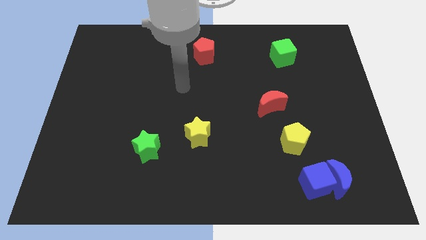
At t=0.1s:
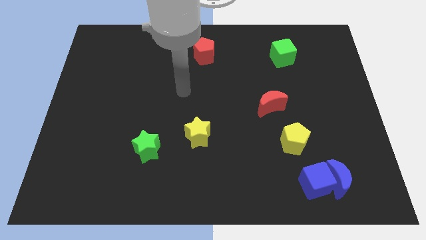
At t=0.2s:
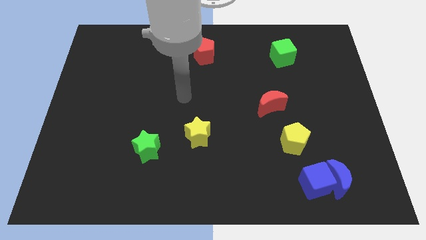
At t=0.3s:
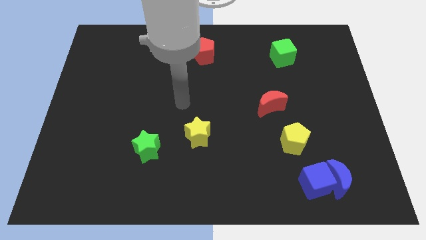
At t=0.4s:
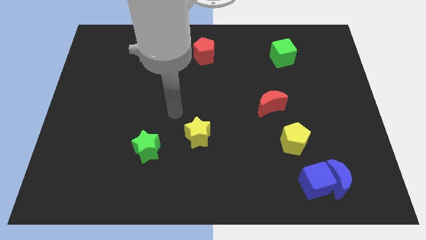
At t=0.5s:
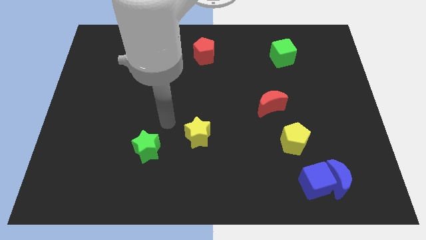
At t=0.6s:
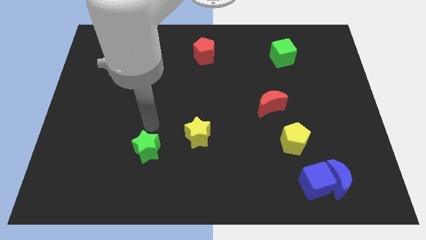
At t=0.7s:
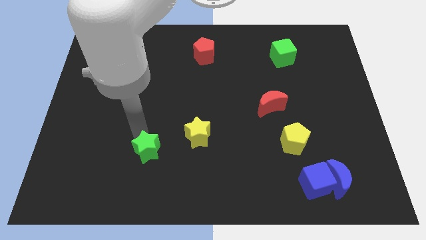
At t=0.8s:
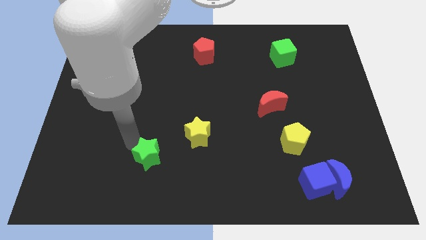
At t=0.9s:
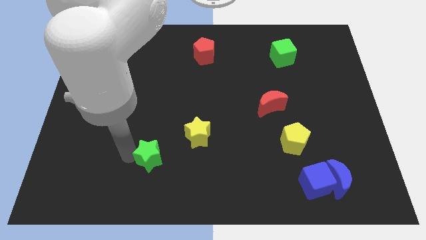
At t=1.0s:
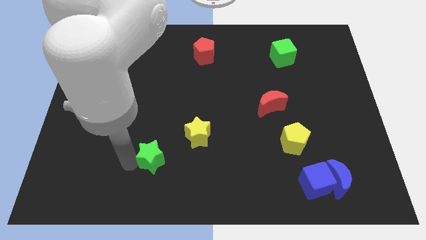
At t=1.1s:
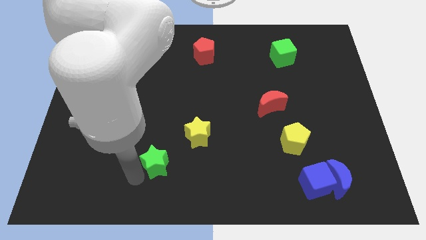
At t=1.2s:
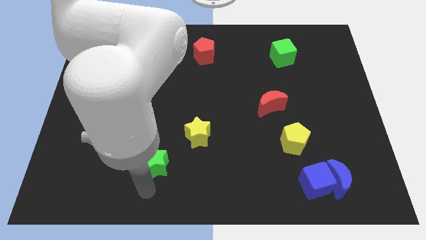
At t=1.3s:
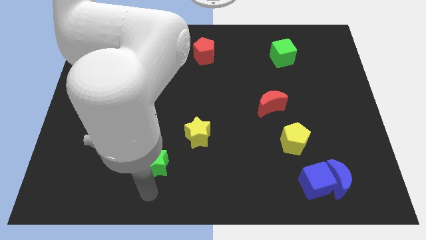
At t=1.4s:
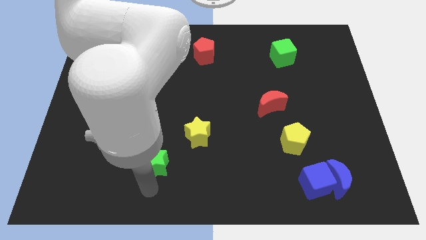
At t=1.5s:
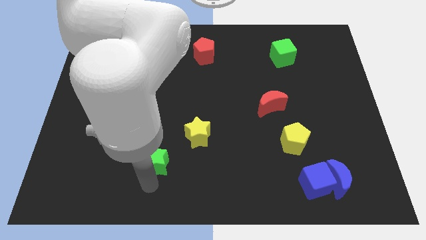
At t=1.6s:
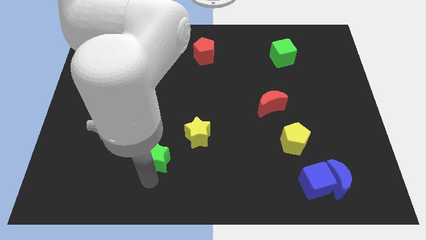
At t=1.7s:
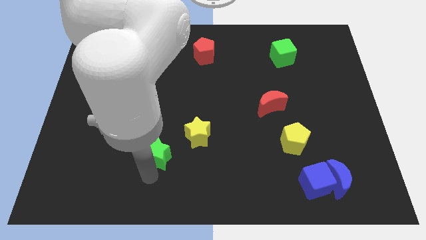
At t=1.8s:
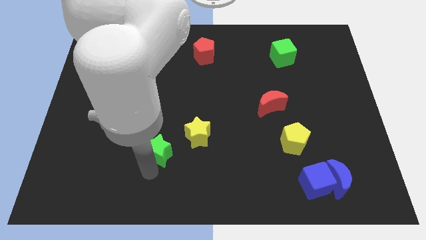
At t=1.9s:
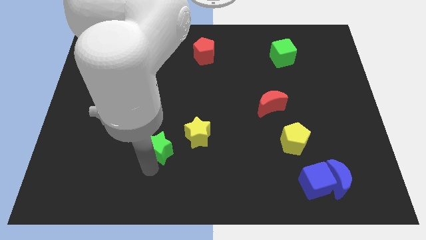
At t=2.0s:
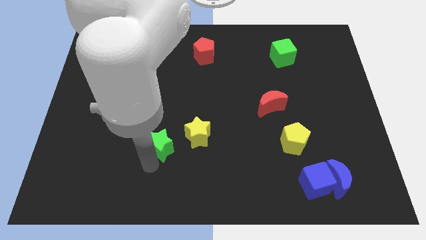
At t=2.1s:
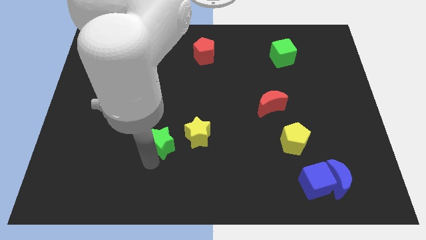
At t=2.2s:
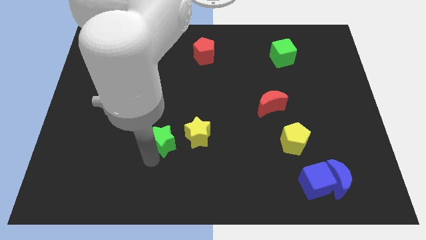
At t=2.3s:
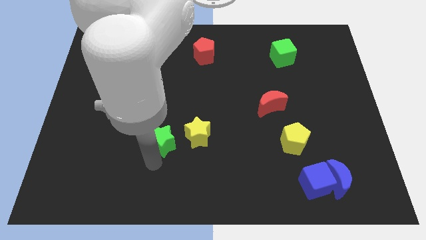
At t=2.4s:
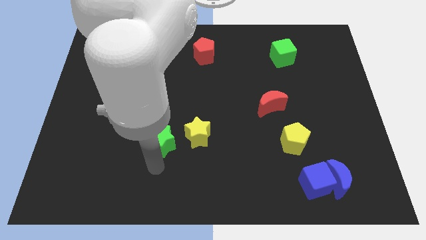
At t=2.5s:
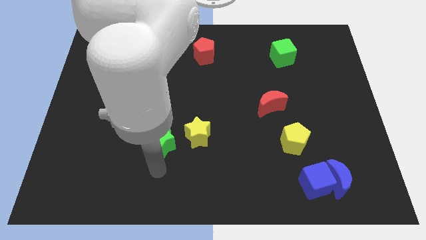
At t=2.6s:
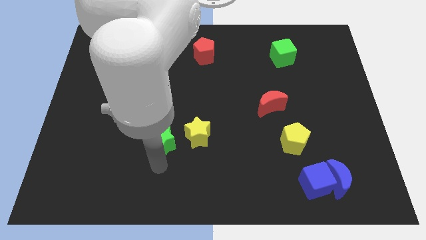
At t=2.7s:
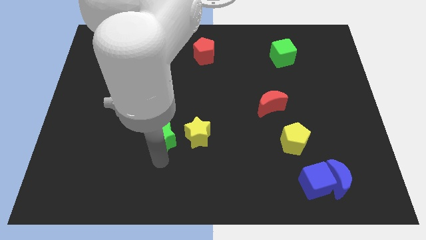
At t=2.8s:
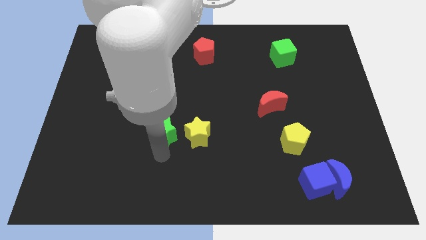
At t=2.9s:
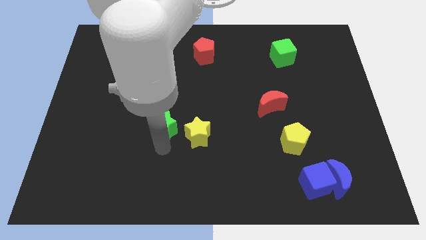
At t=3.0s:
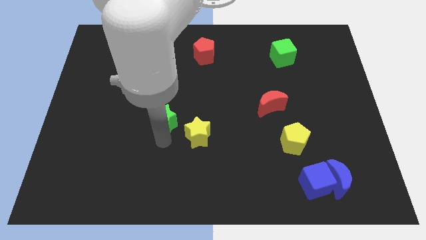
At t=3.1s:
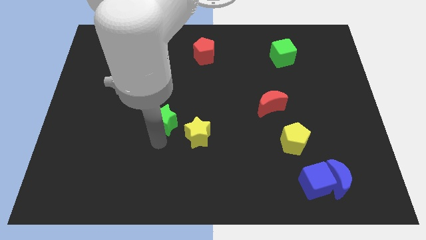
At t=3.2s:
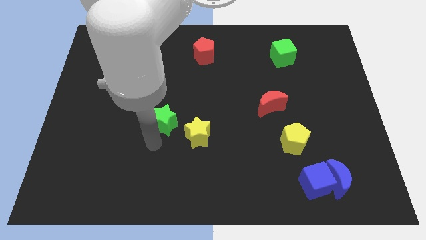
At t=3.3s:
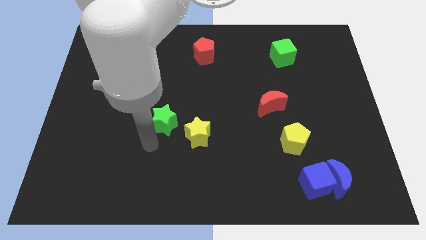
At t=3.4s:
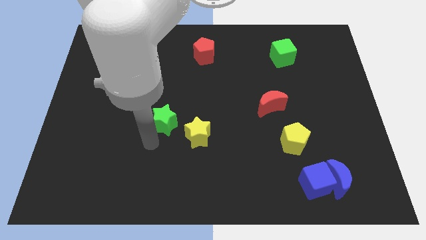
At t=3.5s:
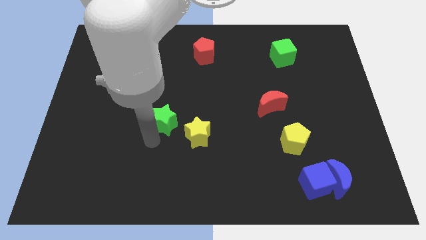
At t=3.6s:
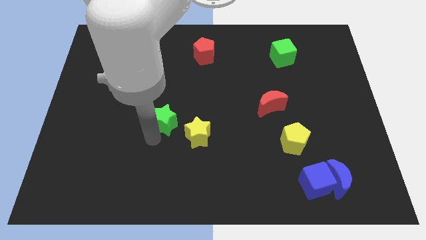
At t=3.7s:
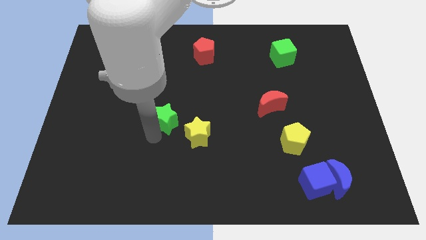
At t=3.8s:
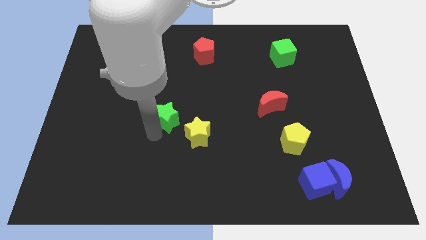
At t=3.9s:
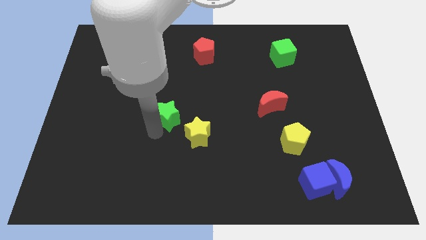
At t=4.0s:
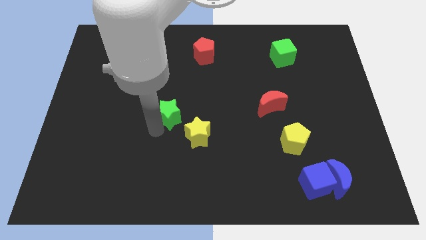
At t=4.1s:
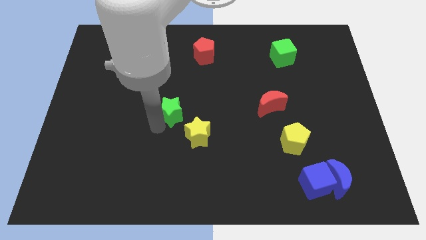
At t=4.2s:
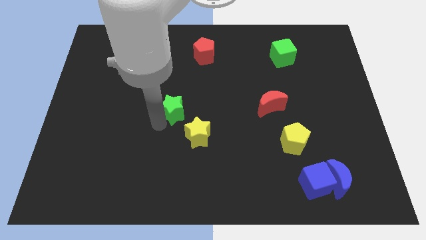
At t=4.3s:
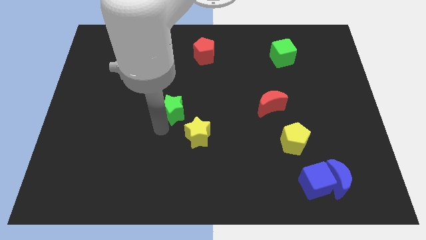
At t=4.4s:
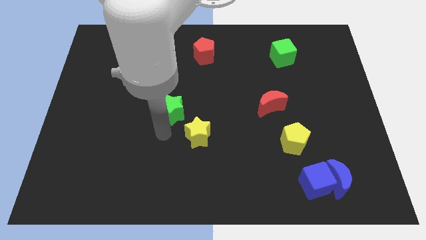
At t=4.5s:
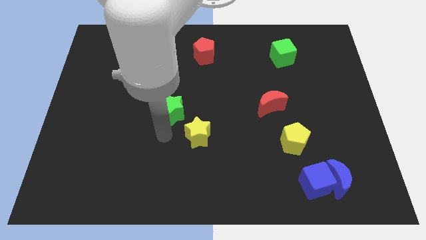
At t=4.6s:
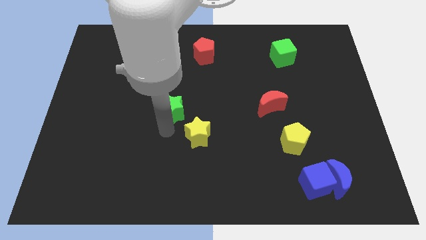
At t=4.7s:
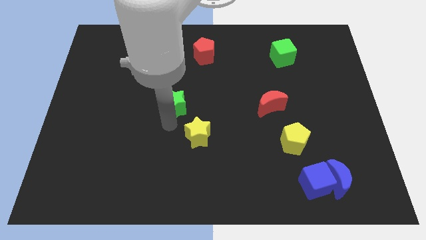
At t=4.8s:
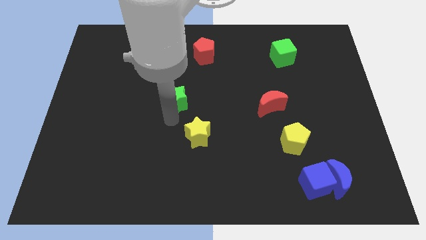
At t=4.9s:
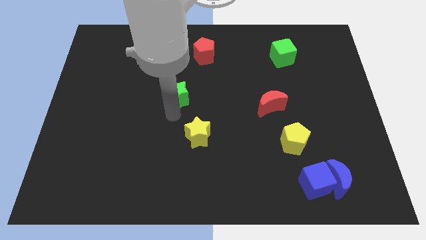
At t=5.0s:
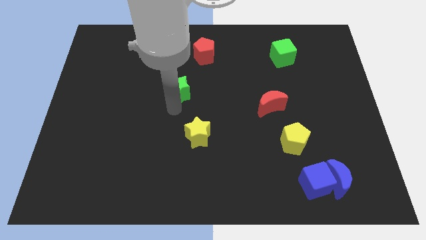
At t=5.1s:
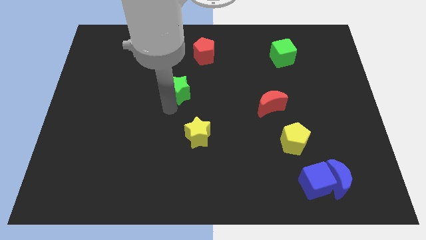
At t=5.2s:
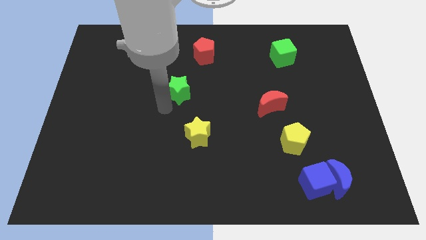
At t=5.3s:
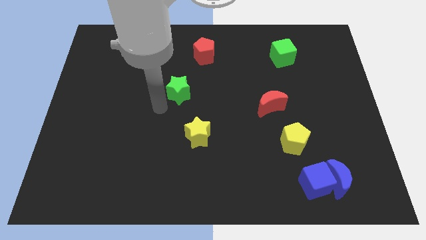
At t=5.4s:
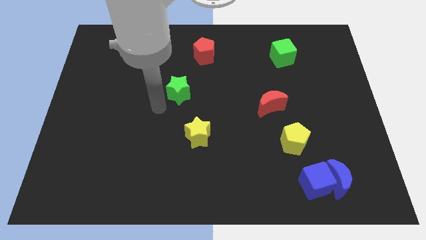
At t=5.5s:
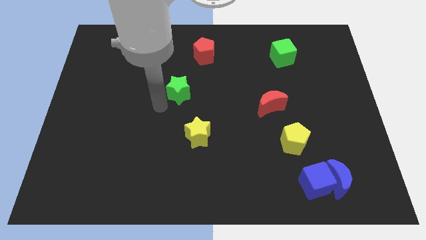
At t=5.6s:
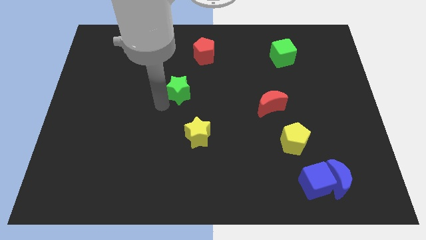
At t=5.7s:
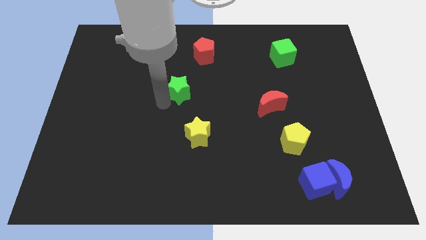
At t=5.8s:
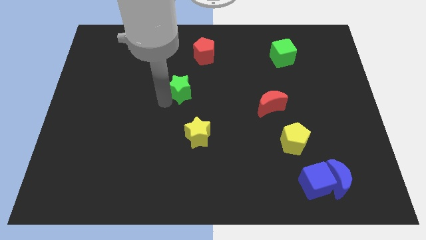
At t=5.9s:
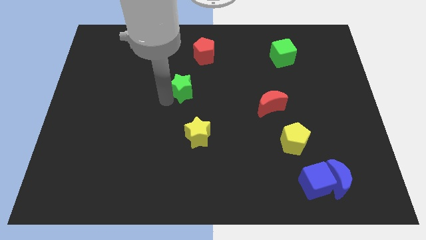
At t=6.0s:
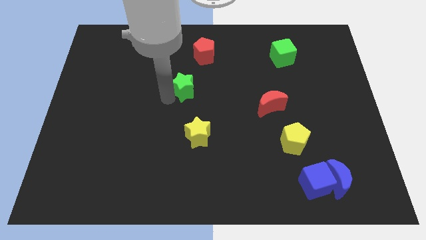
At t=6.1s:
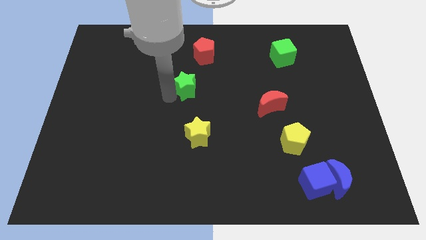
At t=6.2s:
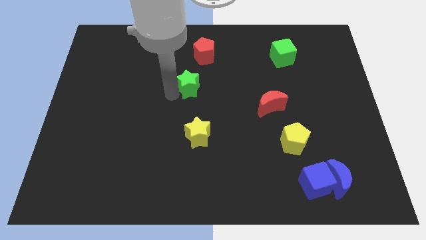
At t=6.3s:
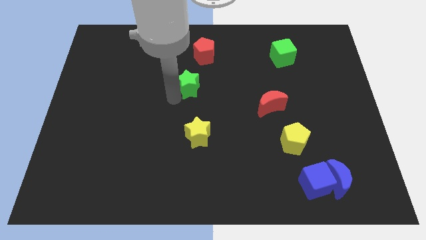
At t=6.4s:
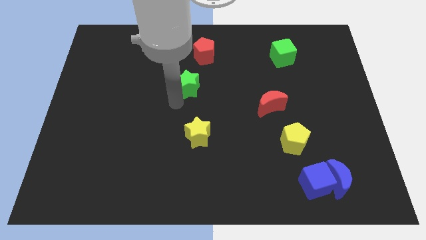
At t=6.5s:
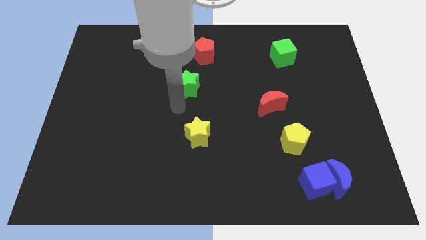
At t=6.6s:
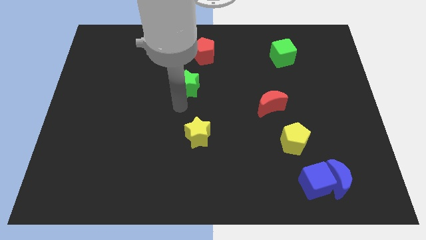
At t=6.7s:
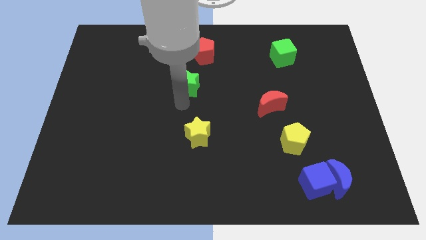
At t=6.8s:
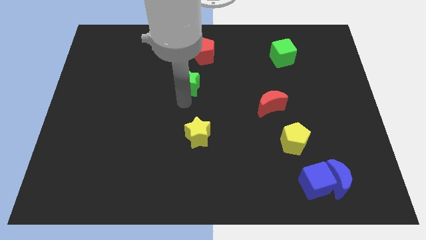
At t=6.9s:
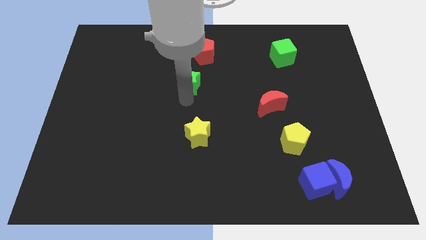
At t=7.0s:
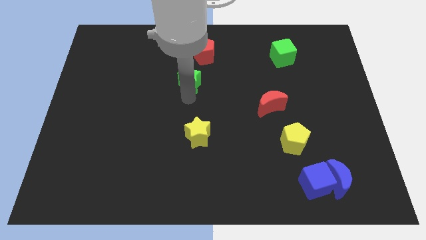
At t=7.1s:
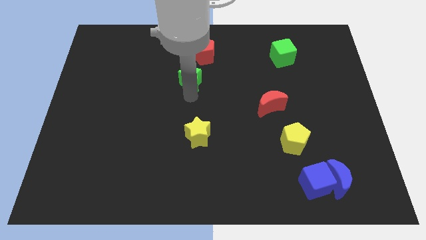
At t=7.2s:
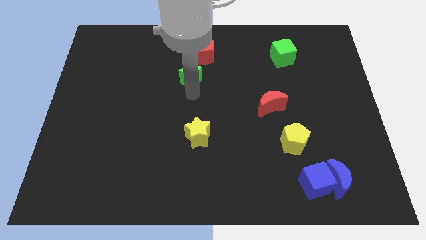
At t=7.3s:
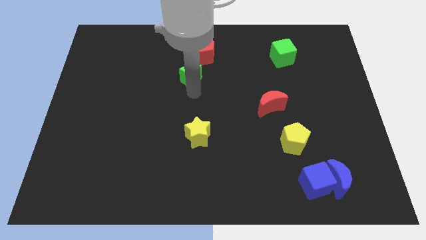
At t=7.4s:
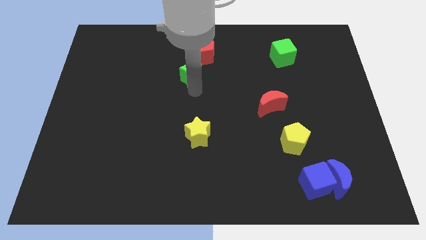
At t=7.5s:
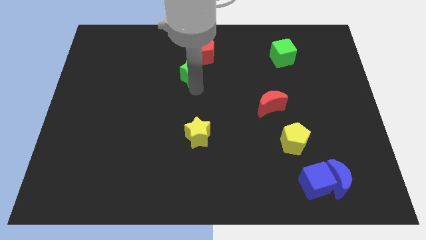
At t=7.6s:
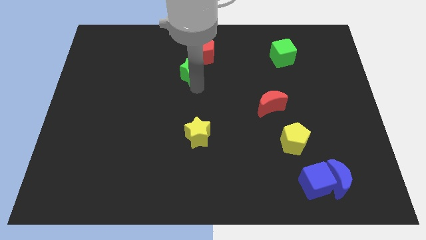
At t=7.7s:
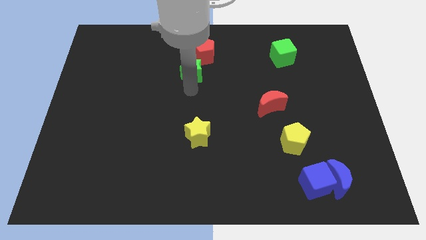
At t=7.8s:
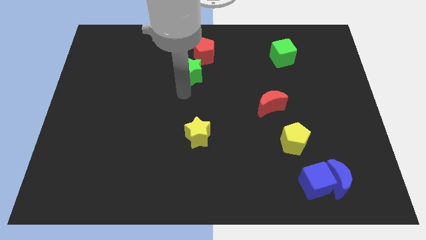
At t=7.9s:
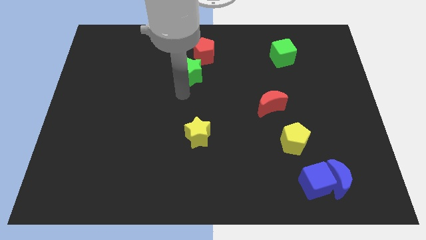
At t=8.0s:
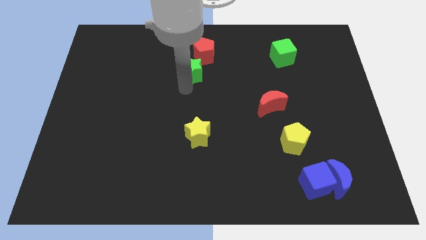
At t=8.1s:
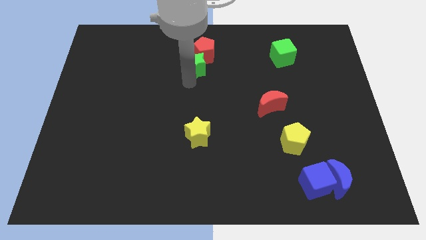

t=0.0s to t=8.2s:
push the green star close to the red pentagon
